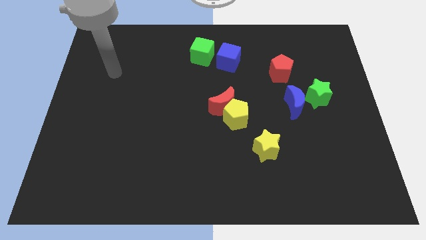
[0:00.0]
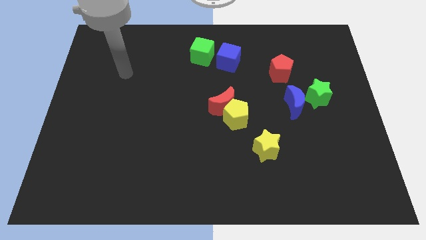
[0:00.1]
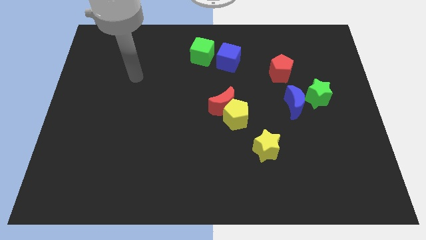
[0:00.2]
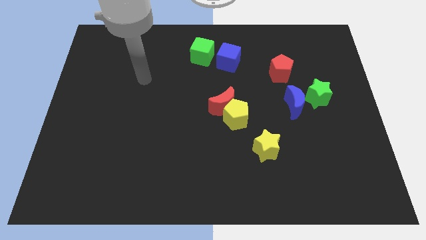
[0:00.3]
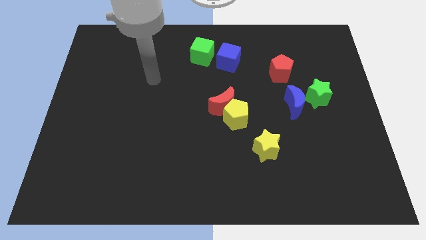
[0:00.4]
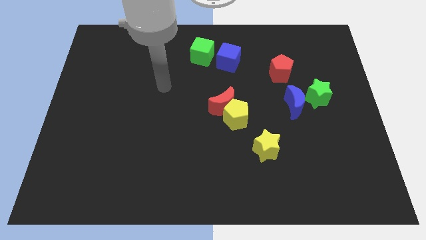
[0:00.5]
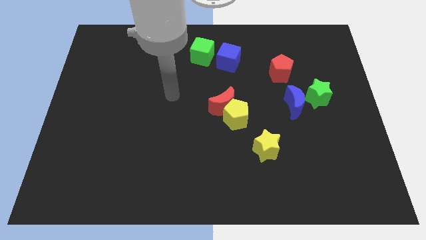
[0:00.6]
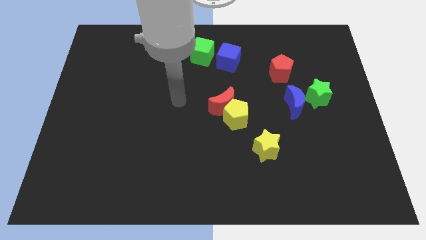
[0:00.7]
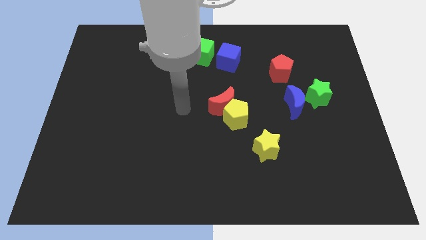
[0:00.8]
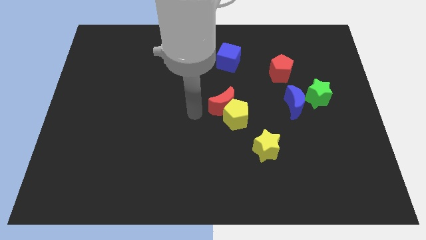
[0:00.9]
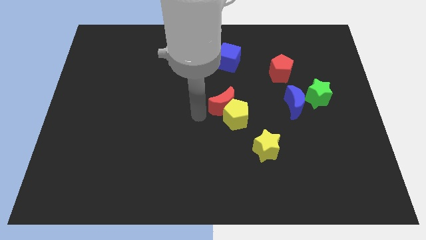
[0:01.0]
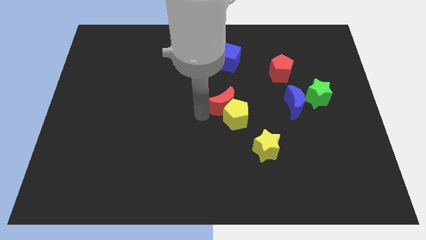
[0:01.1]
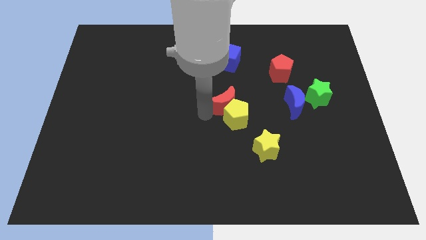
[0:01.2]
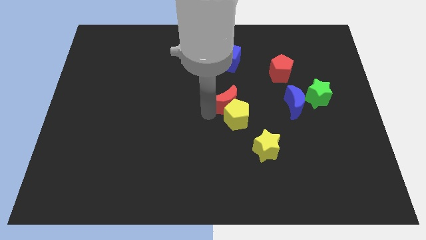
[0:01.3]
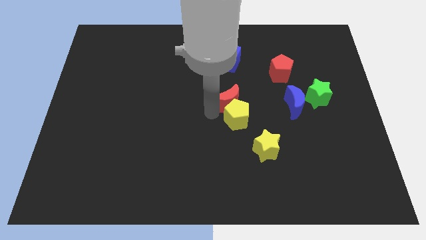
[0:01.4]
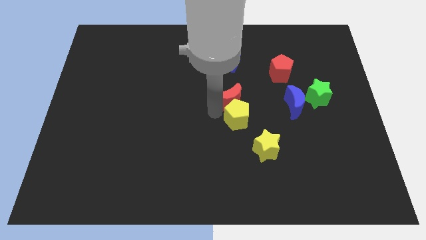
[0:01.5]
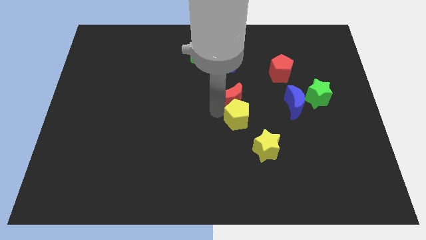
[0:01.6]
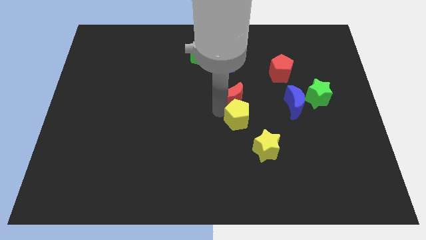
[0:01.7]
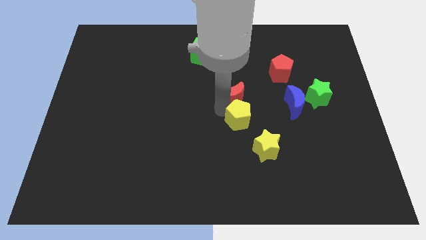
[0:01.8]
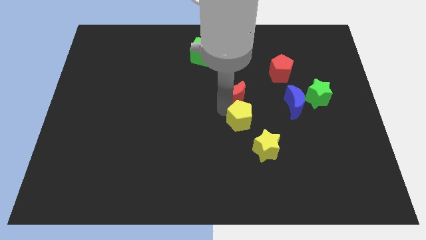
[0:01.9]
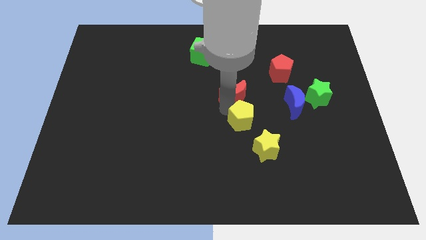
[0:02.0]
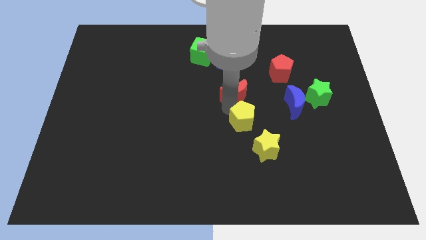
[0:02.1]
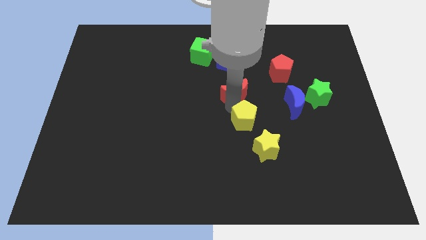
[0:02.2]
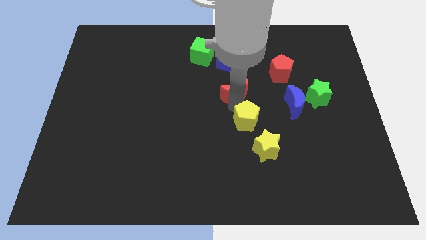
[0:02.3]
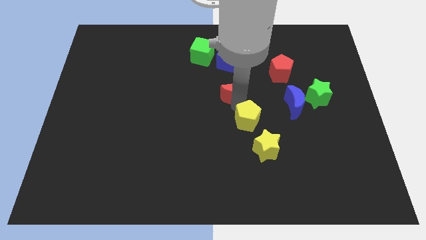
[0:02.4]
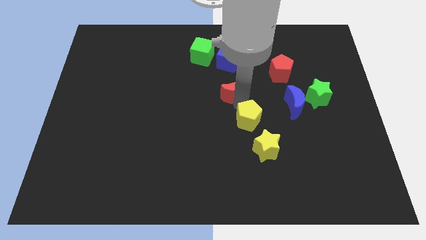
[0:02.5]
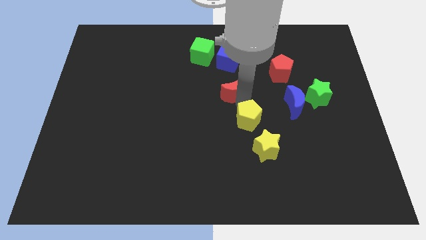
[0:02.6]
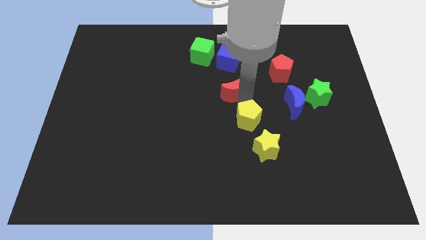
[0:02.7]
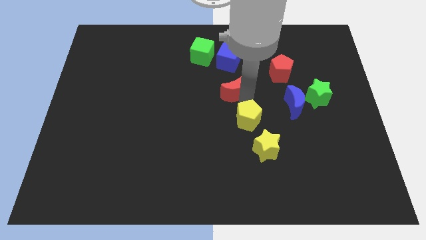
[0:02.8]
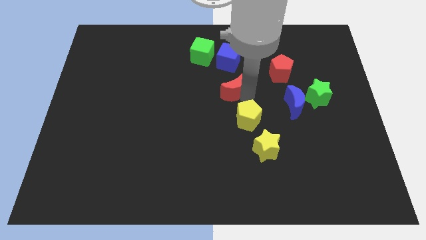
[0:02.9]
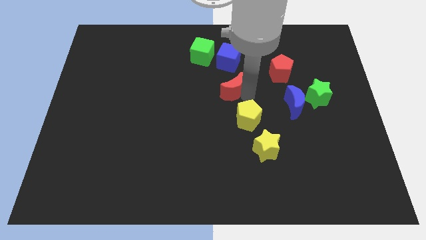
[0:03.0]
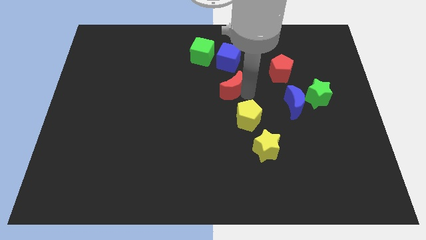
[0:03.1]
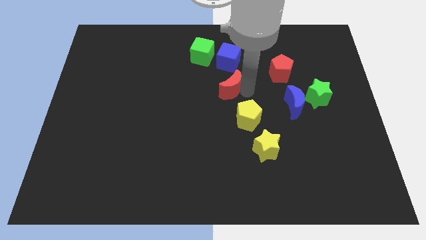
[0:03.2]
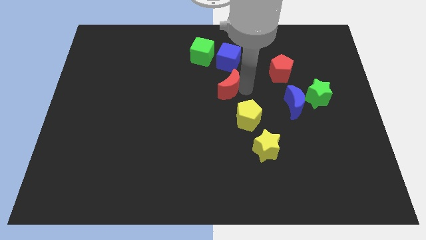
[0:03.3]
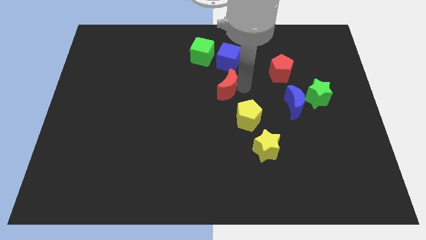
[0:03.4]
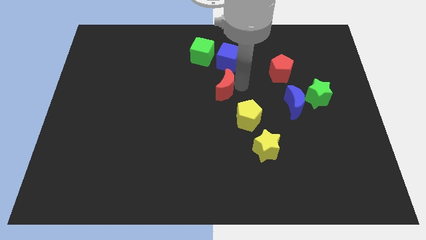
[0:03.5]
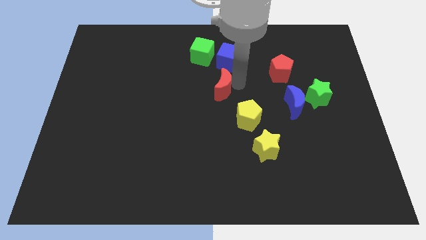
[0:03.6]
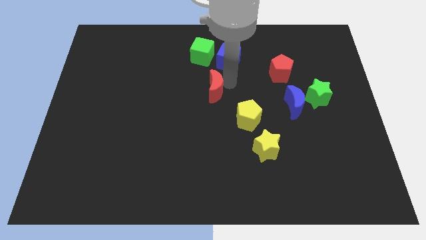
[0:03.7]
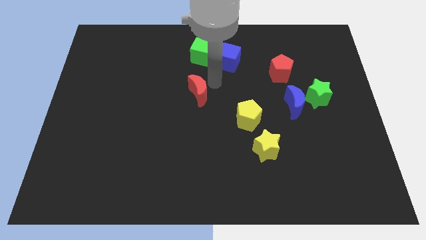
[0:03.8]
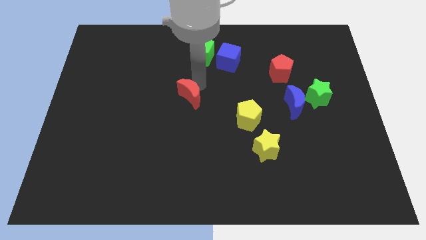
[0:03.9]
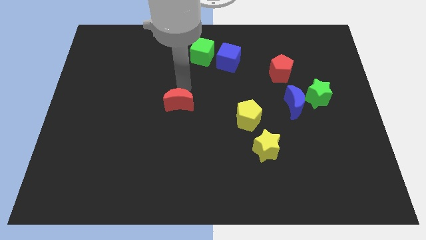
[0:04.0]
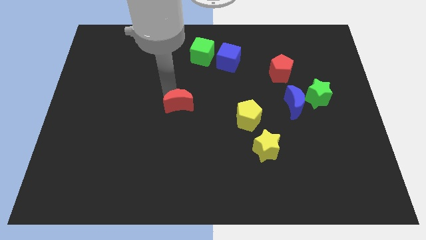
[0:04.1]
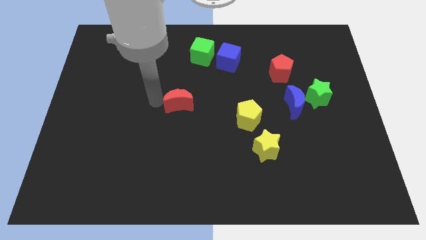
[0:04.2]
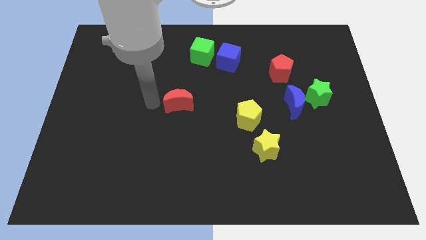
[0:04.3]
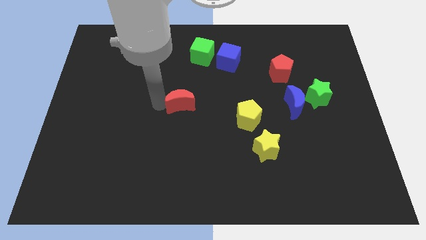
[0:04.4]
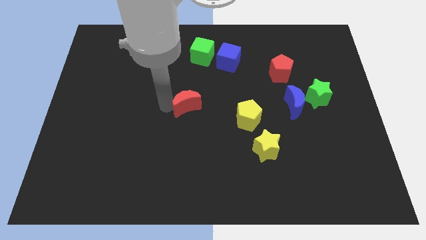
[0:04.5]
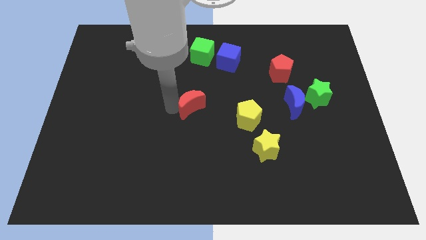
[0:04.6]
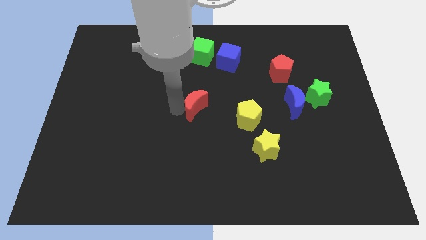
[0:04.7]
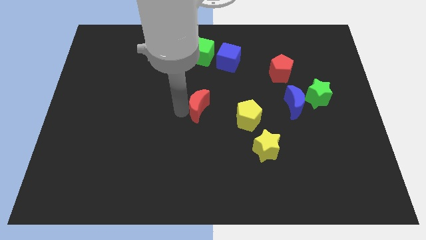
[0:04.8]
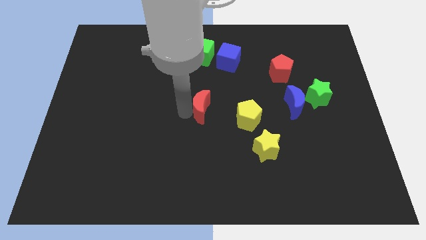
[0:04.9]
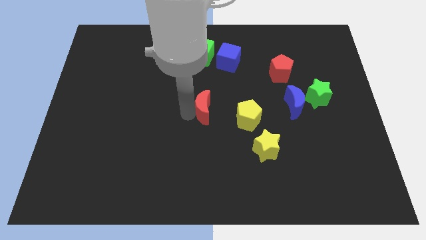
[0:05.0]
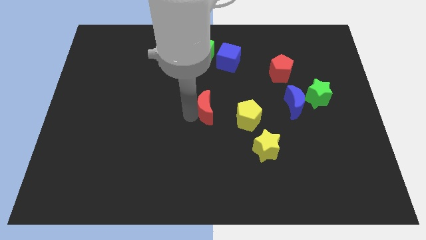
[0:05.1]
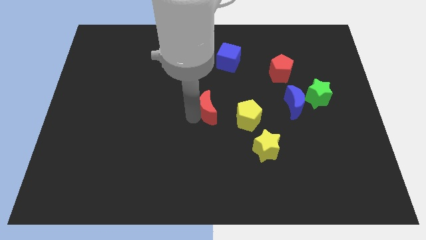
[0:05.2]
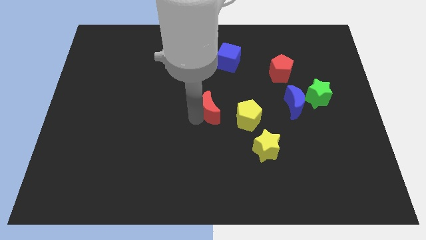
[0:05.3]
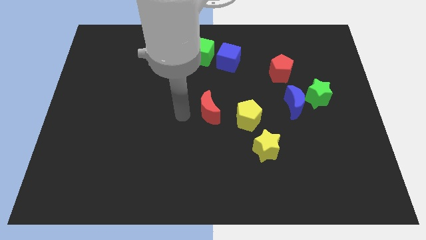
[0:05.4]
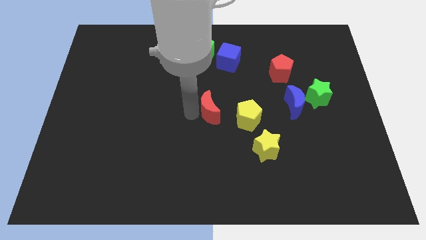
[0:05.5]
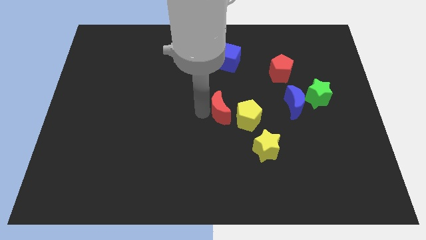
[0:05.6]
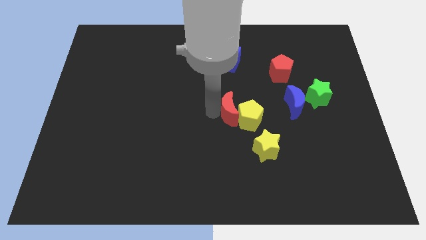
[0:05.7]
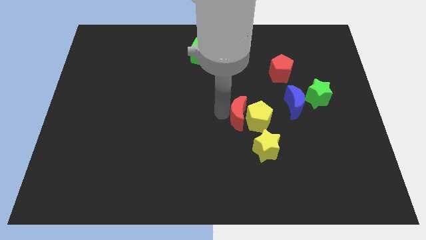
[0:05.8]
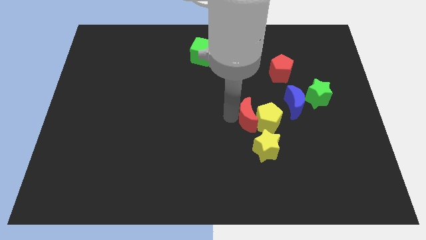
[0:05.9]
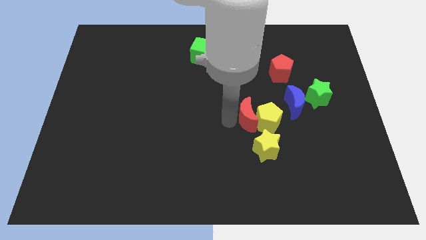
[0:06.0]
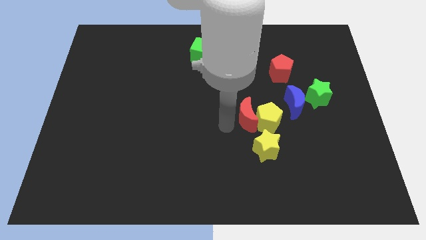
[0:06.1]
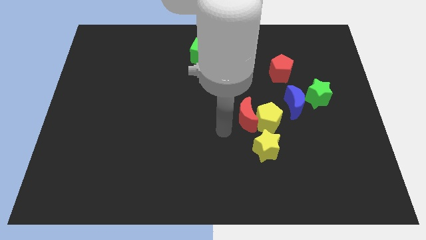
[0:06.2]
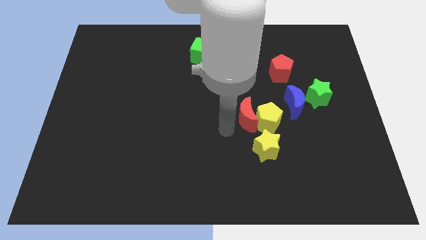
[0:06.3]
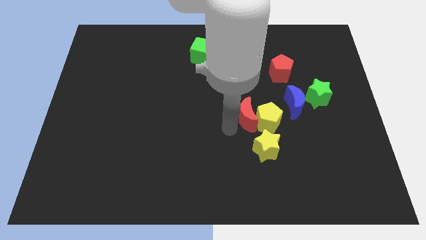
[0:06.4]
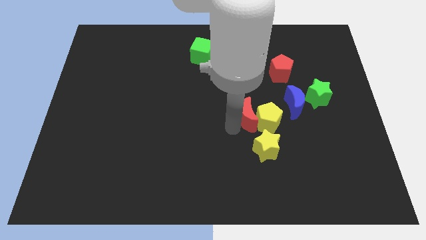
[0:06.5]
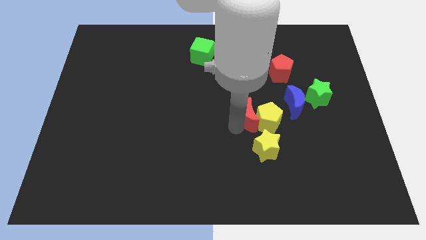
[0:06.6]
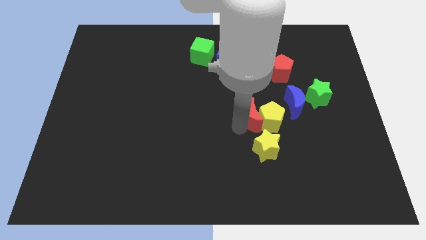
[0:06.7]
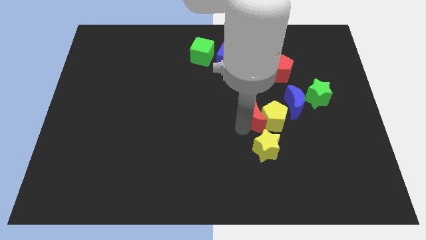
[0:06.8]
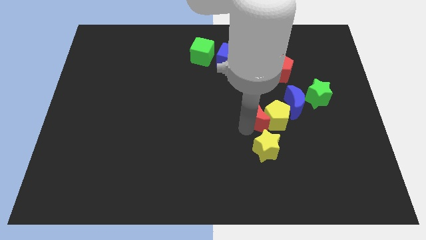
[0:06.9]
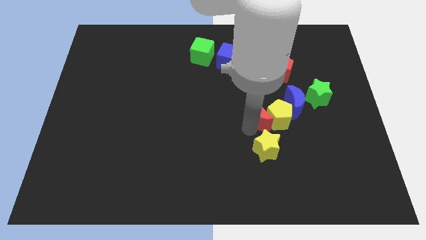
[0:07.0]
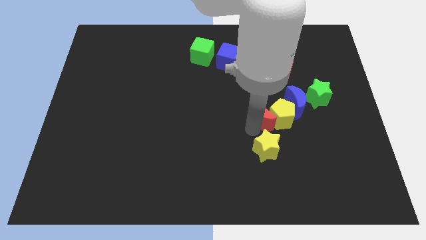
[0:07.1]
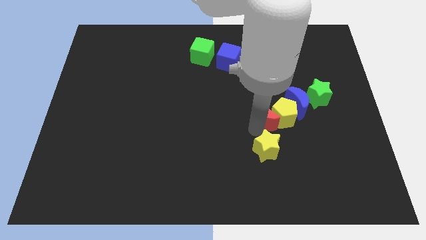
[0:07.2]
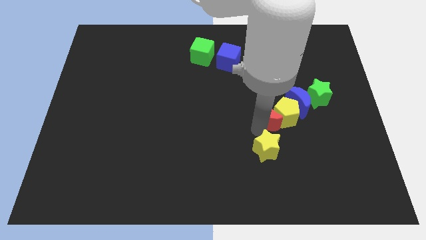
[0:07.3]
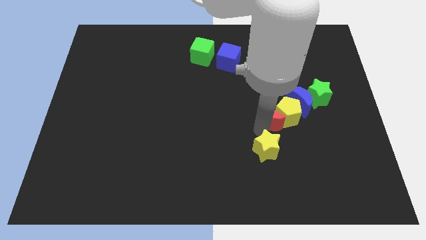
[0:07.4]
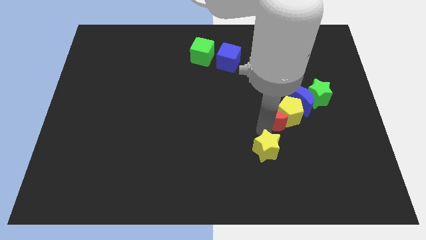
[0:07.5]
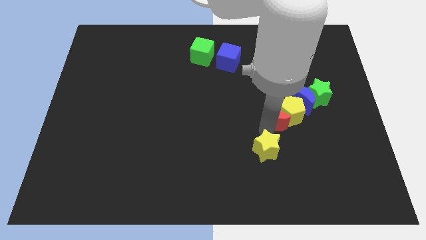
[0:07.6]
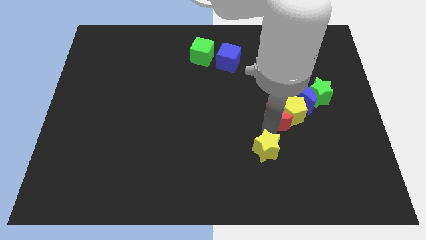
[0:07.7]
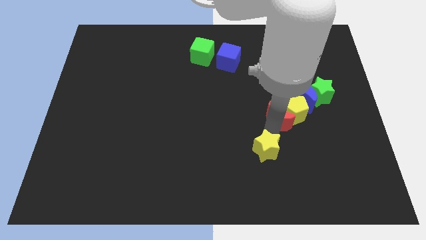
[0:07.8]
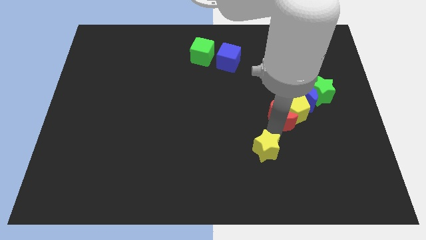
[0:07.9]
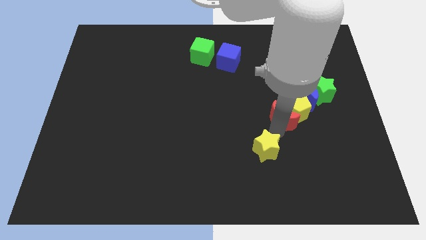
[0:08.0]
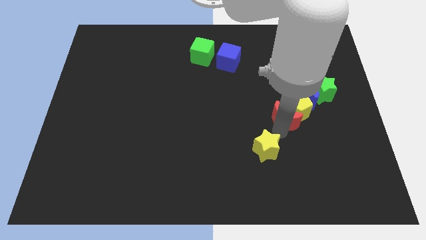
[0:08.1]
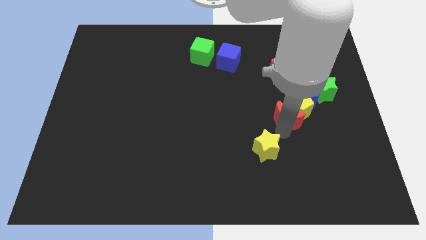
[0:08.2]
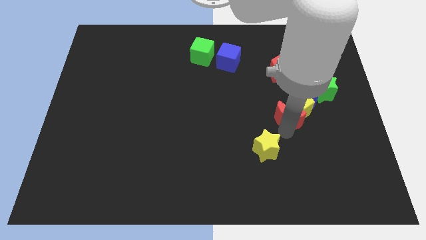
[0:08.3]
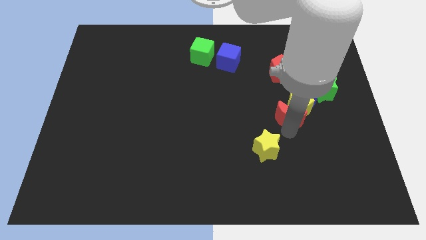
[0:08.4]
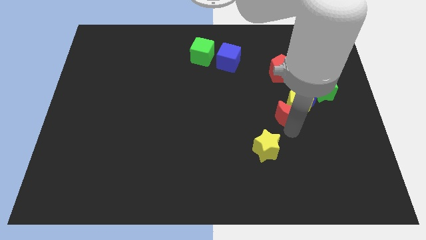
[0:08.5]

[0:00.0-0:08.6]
push the red moon to the bottom of the blue moon
